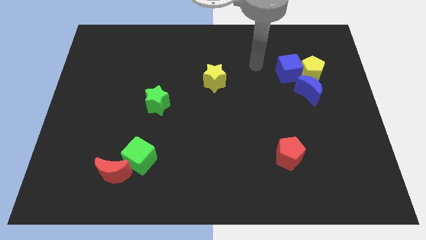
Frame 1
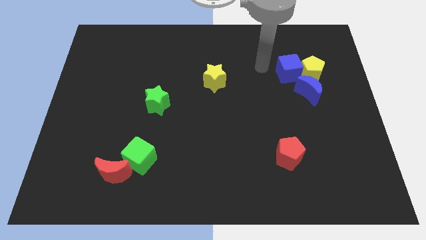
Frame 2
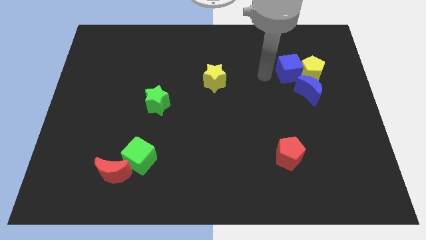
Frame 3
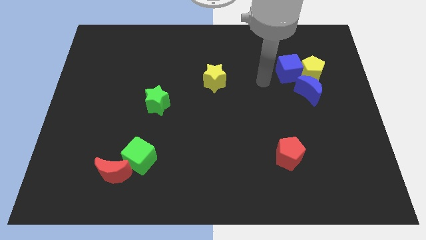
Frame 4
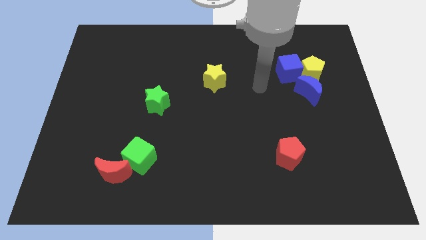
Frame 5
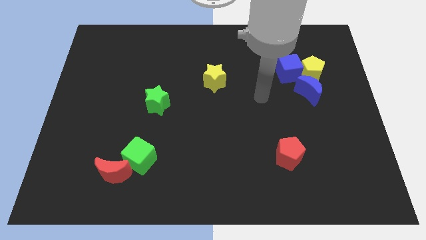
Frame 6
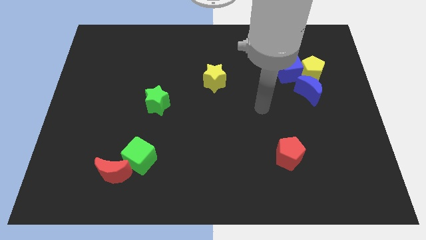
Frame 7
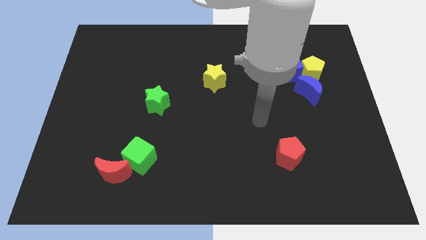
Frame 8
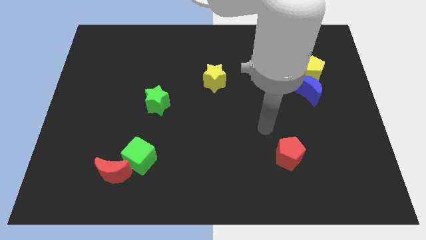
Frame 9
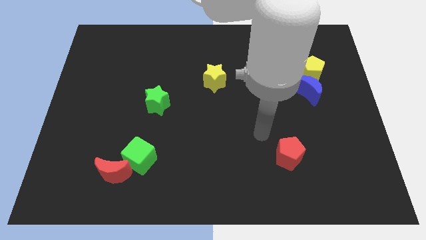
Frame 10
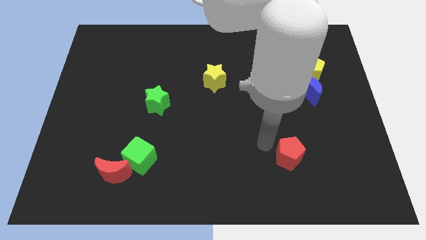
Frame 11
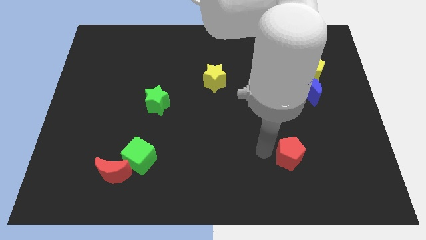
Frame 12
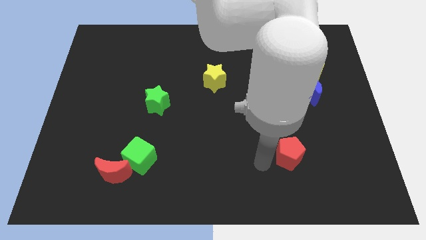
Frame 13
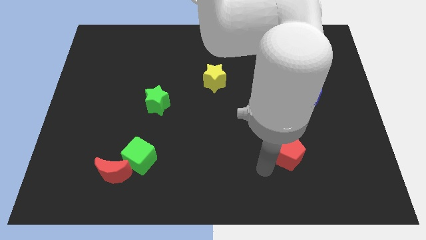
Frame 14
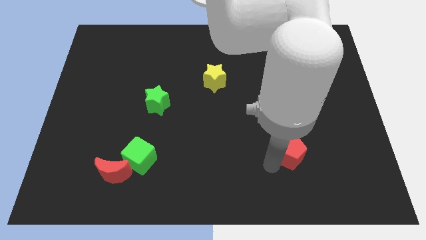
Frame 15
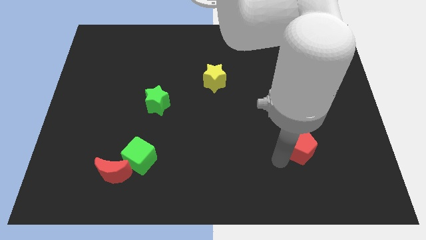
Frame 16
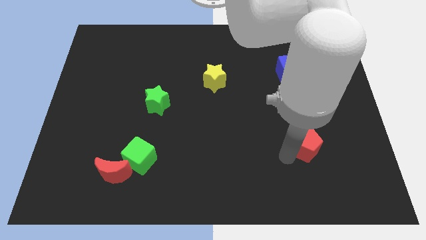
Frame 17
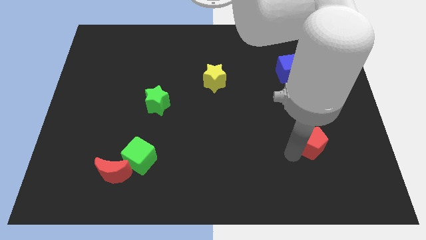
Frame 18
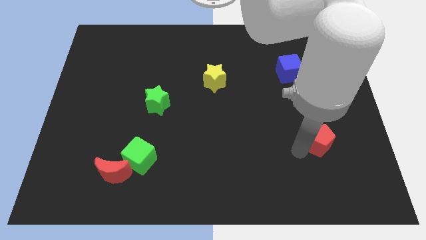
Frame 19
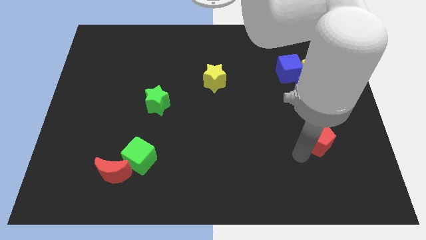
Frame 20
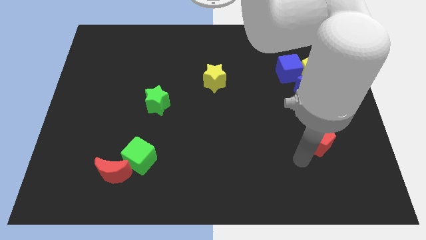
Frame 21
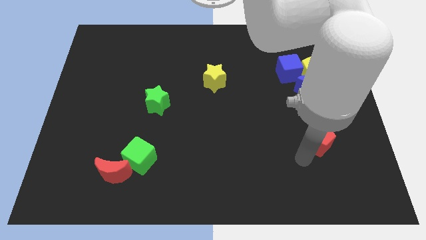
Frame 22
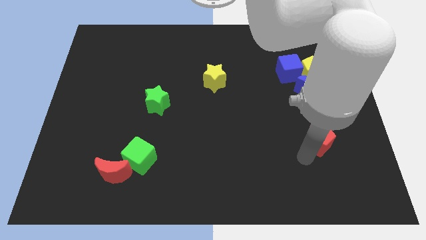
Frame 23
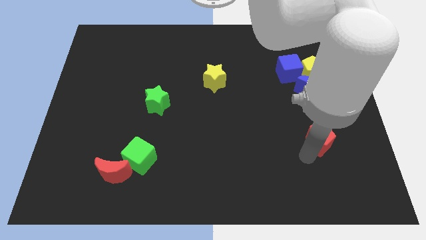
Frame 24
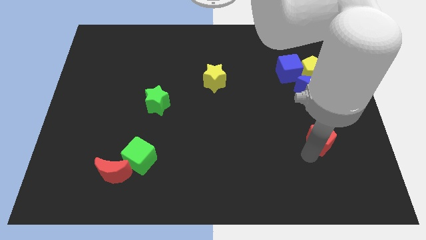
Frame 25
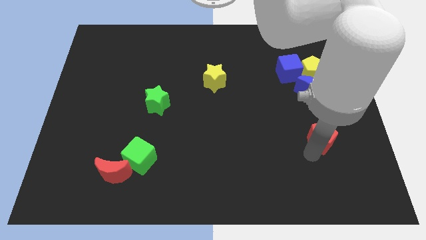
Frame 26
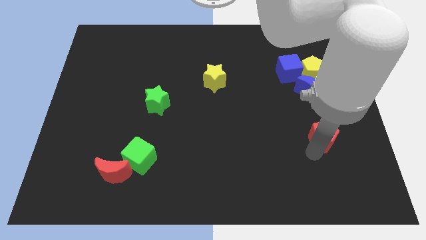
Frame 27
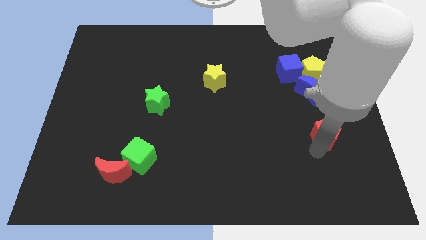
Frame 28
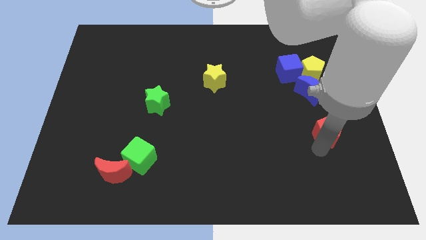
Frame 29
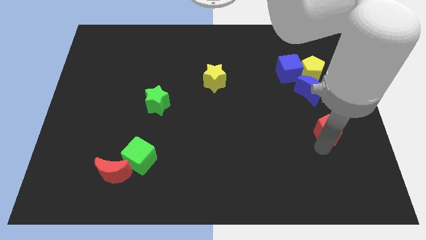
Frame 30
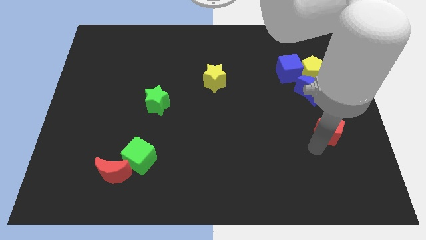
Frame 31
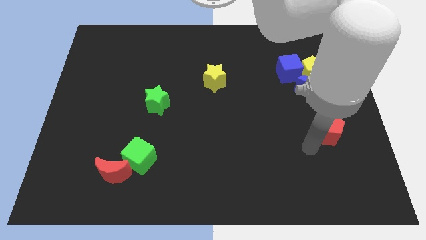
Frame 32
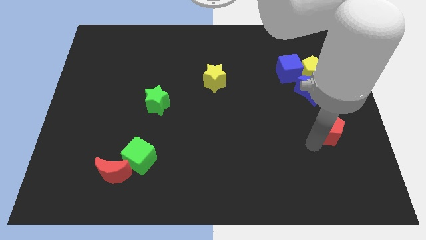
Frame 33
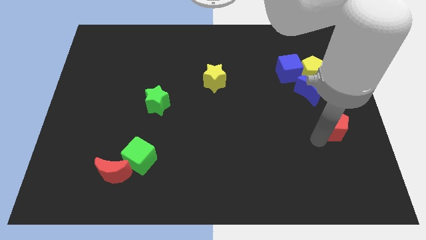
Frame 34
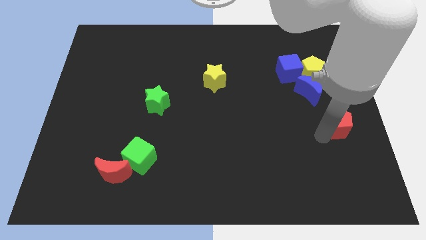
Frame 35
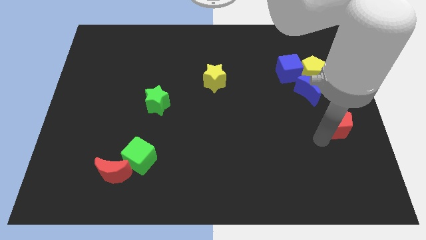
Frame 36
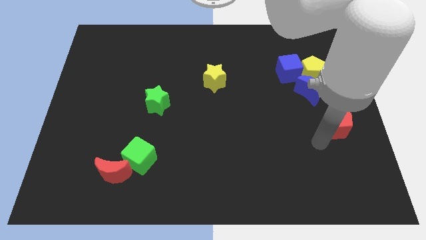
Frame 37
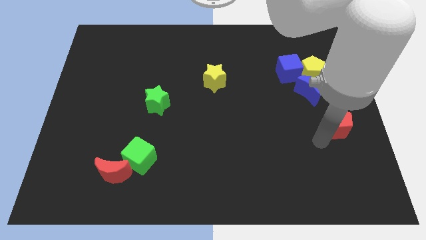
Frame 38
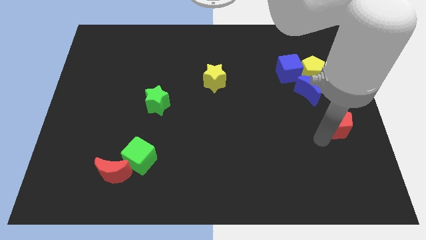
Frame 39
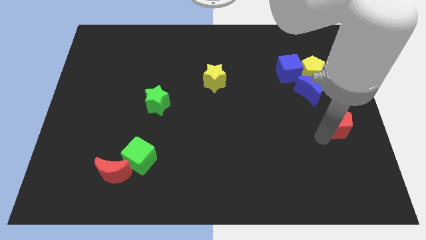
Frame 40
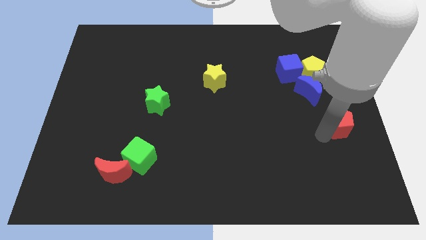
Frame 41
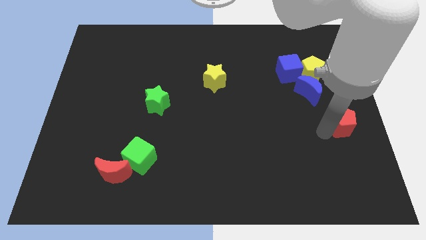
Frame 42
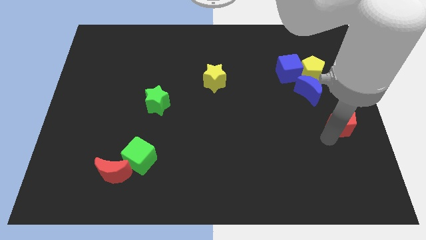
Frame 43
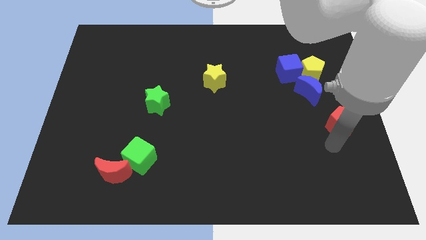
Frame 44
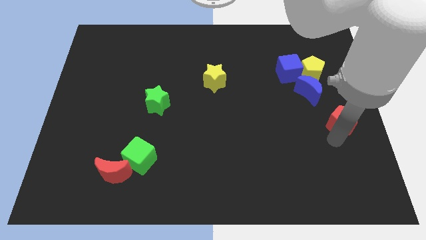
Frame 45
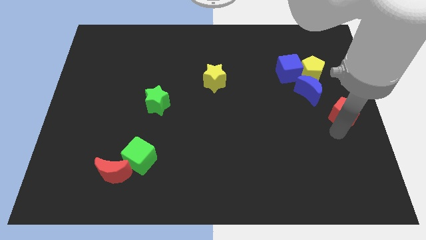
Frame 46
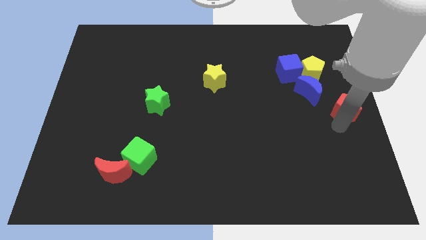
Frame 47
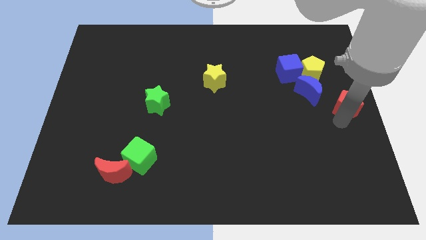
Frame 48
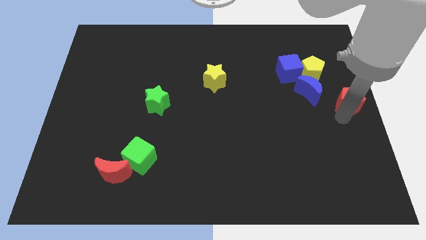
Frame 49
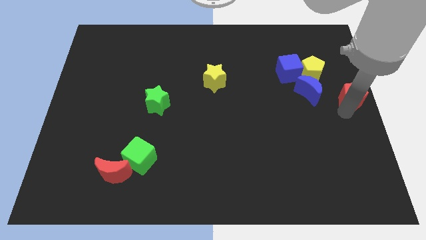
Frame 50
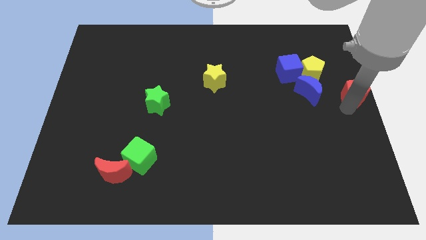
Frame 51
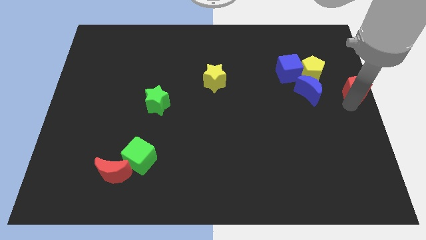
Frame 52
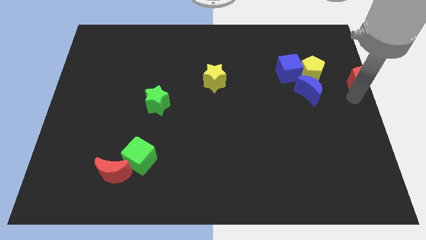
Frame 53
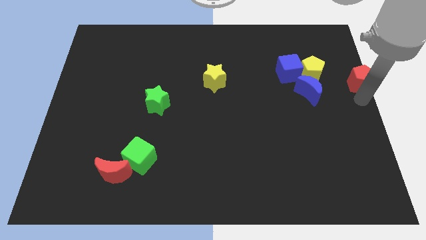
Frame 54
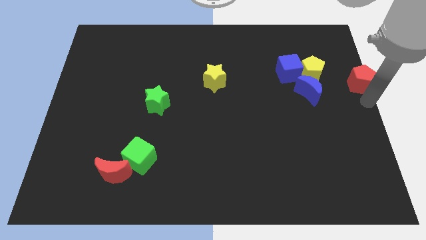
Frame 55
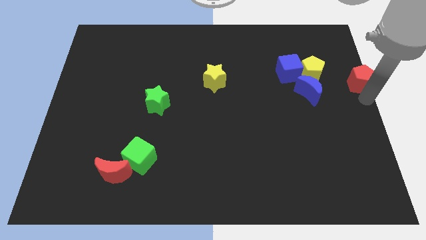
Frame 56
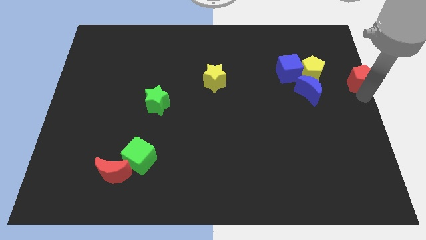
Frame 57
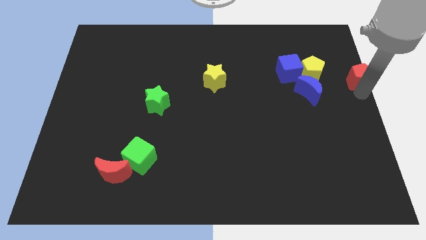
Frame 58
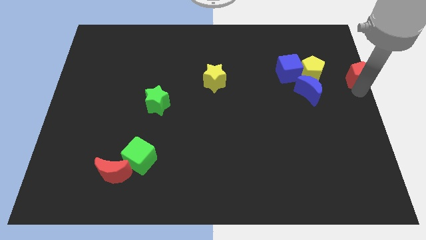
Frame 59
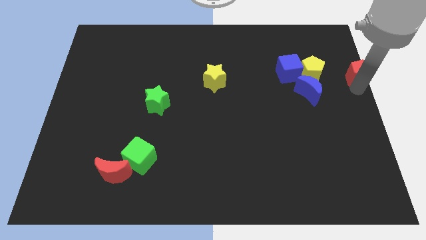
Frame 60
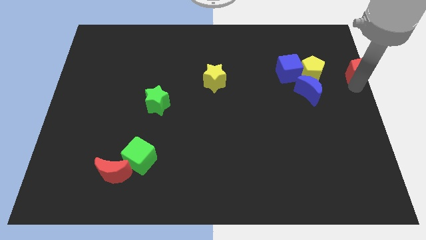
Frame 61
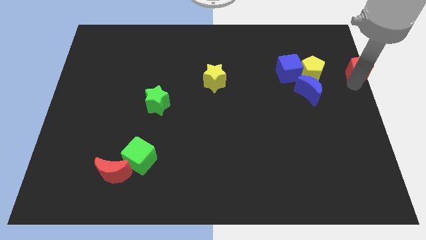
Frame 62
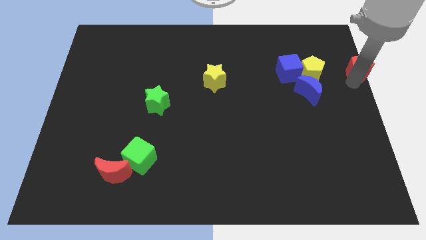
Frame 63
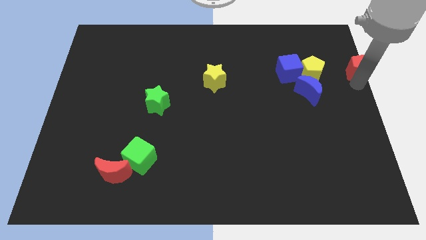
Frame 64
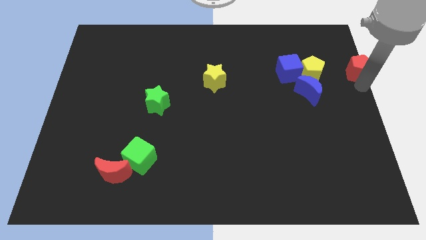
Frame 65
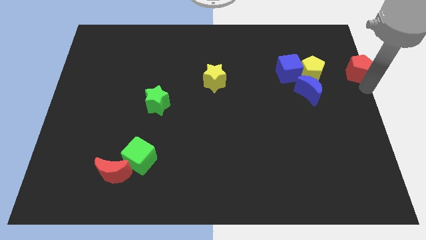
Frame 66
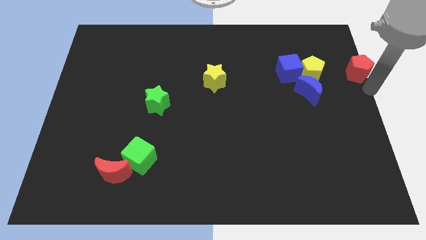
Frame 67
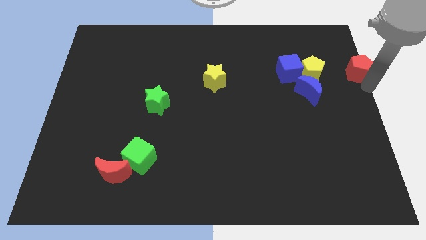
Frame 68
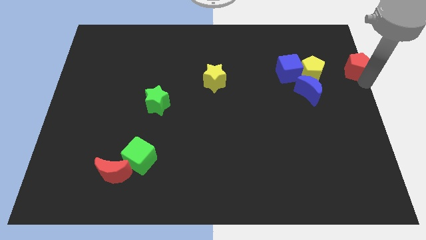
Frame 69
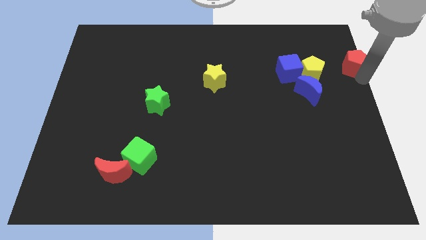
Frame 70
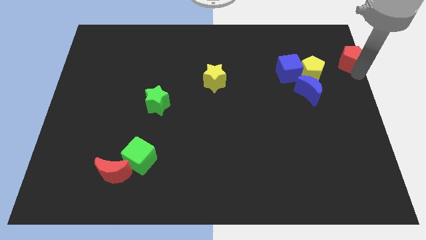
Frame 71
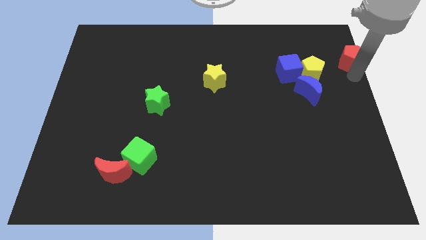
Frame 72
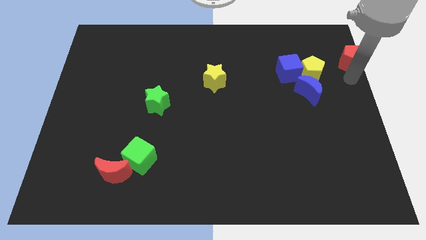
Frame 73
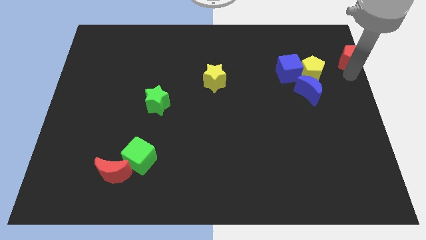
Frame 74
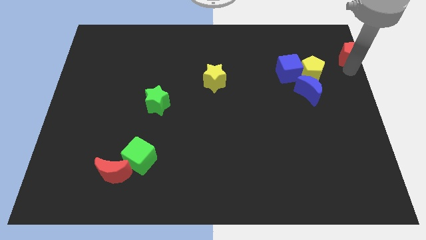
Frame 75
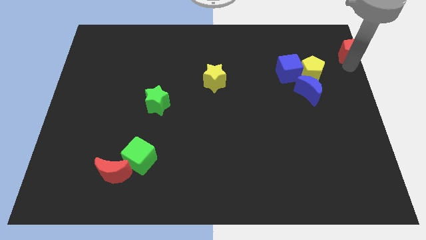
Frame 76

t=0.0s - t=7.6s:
put the red pentagon to the top right of the board
